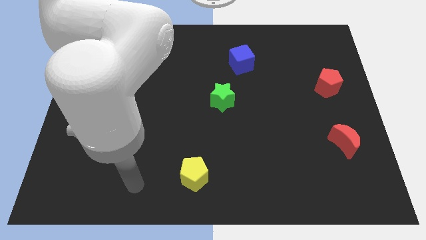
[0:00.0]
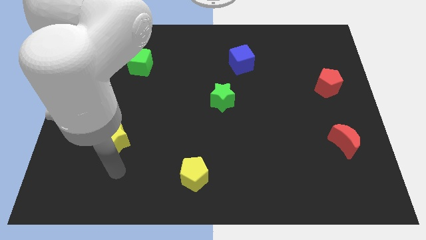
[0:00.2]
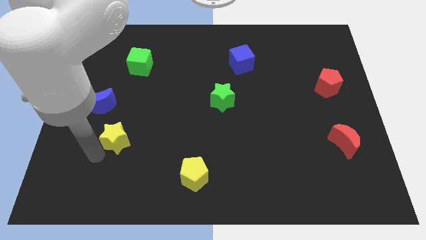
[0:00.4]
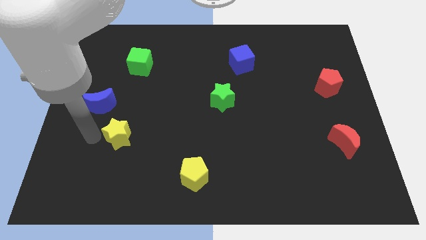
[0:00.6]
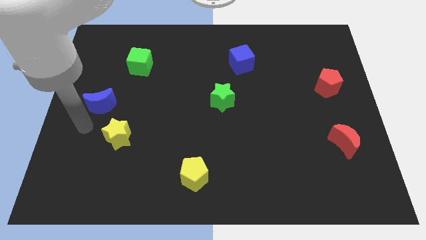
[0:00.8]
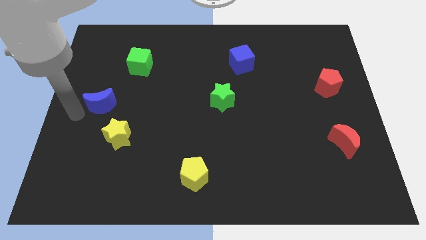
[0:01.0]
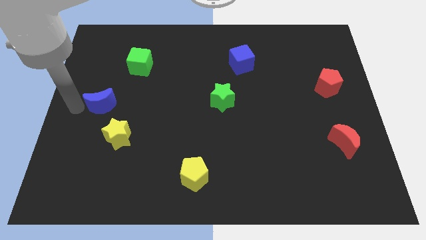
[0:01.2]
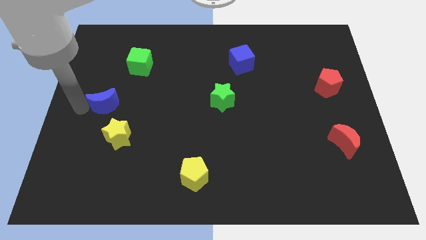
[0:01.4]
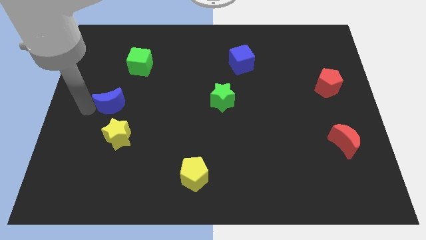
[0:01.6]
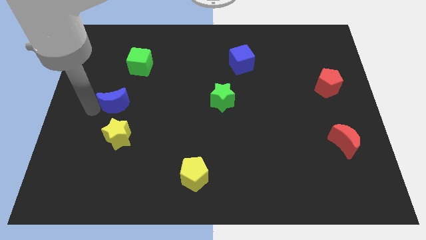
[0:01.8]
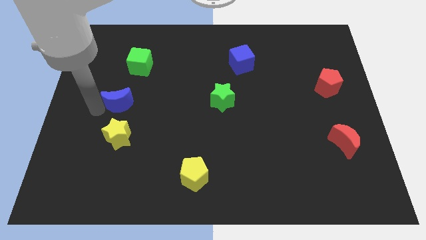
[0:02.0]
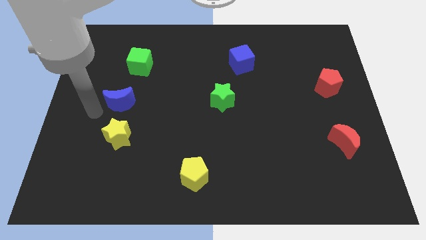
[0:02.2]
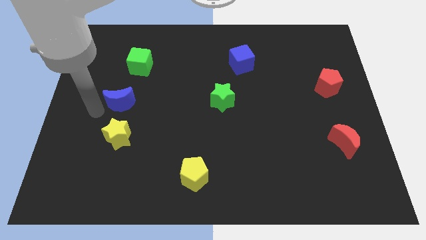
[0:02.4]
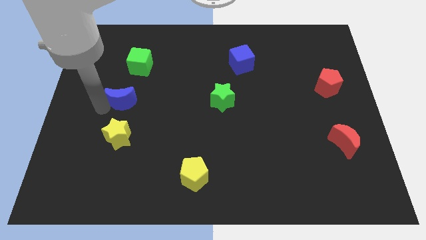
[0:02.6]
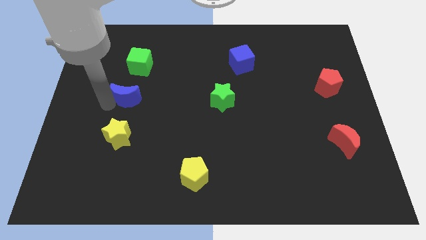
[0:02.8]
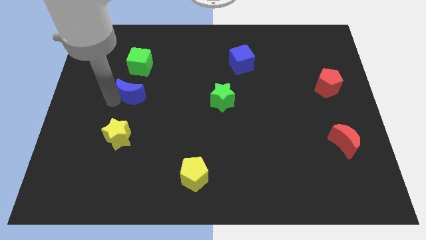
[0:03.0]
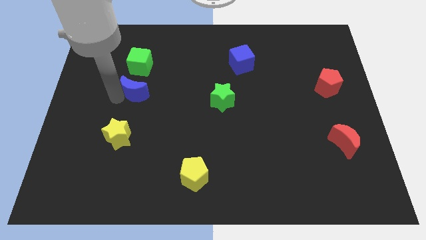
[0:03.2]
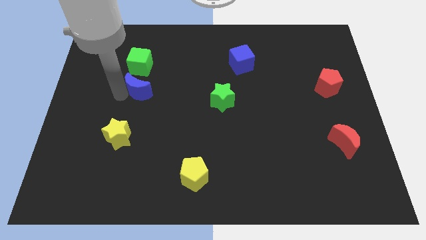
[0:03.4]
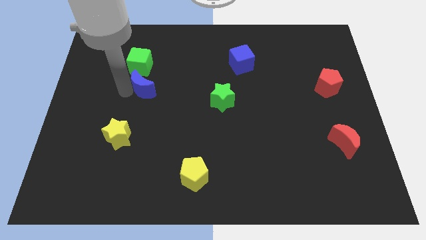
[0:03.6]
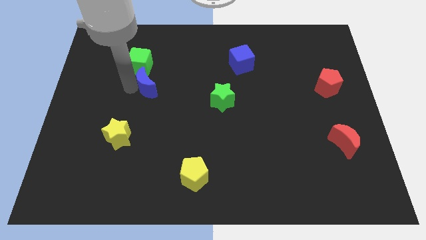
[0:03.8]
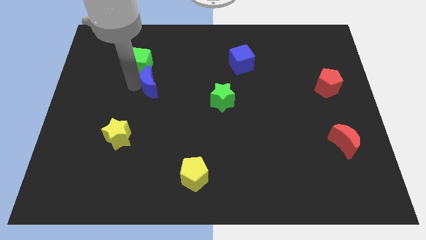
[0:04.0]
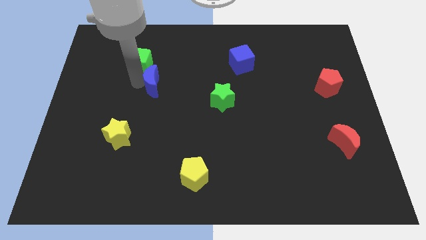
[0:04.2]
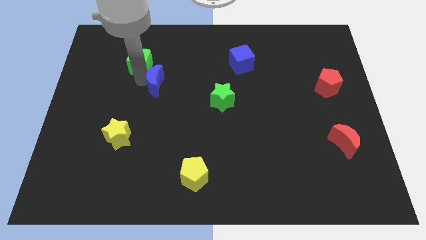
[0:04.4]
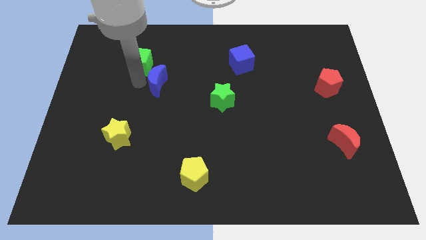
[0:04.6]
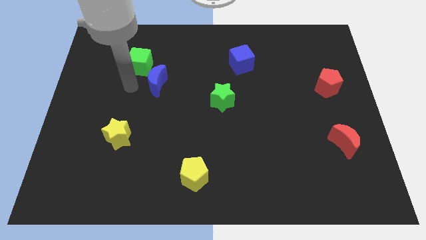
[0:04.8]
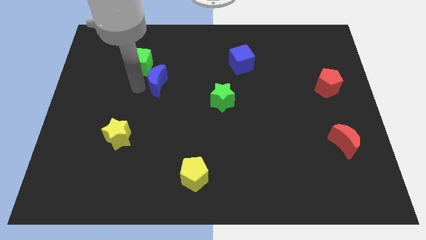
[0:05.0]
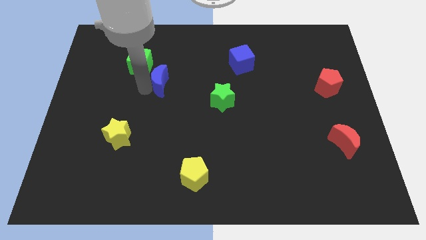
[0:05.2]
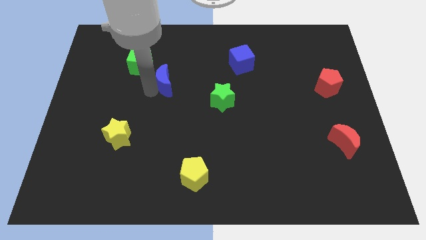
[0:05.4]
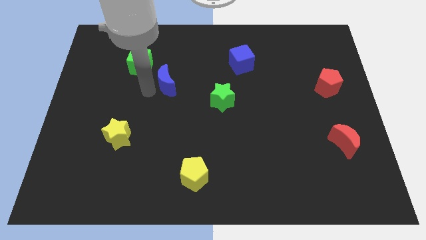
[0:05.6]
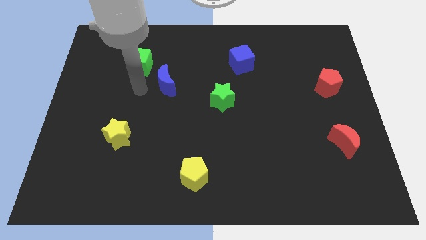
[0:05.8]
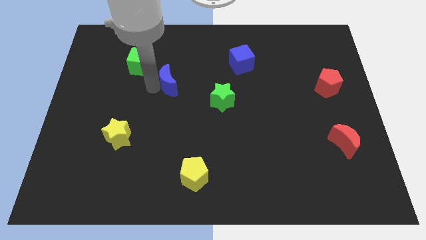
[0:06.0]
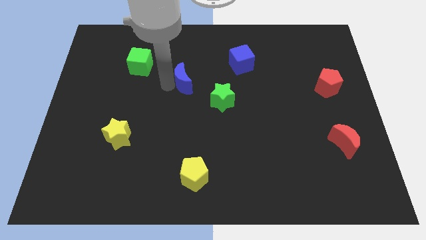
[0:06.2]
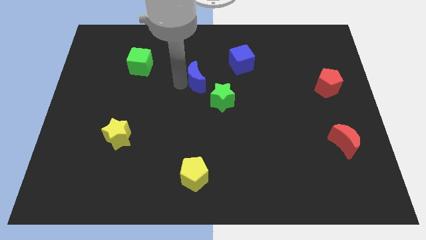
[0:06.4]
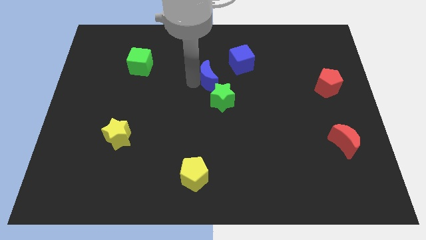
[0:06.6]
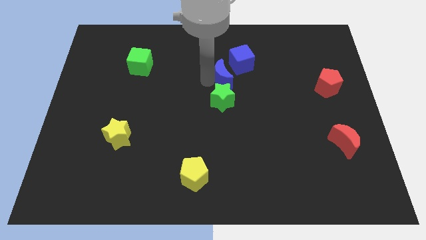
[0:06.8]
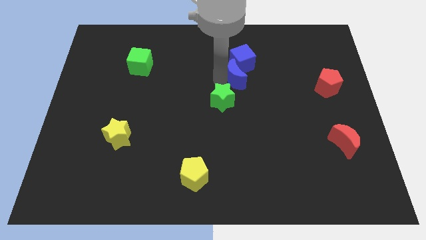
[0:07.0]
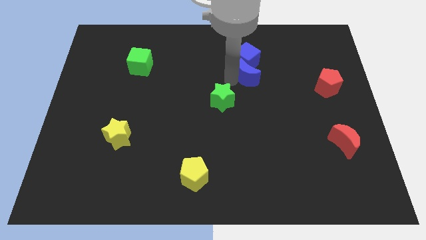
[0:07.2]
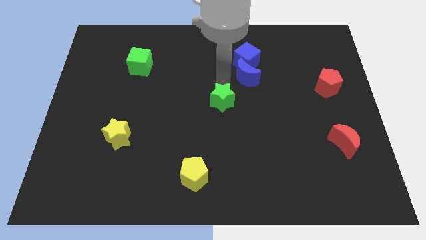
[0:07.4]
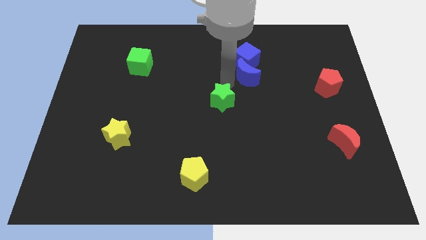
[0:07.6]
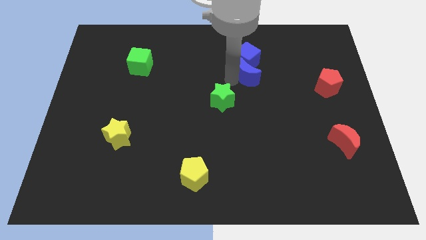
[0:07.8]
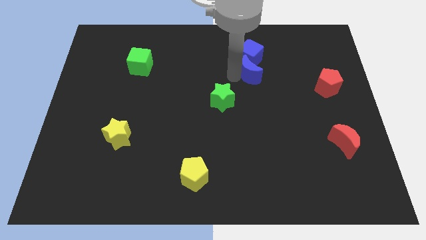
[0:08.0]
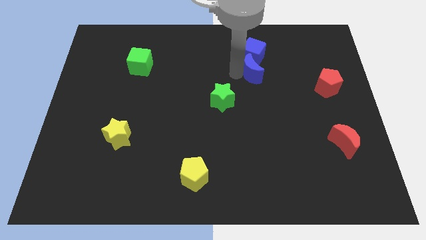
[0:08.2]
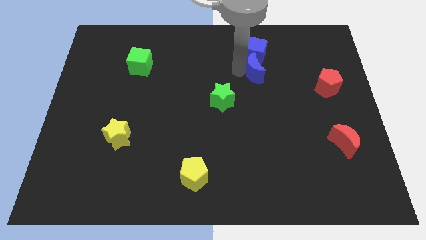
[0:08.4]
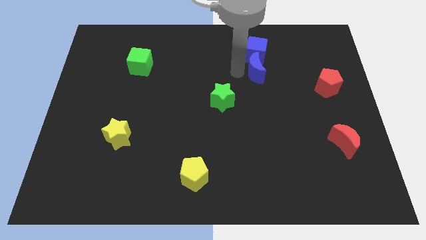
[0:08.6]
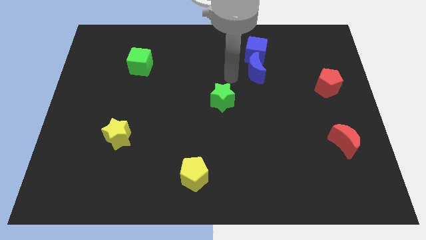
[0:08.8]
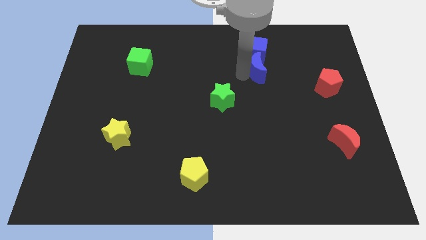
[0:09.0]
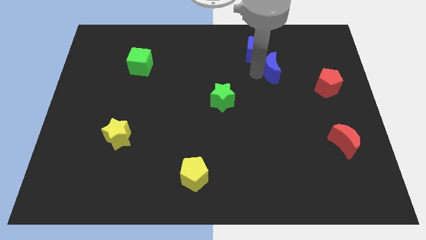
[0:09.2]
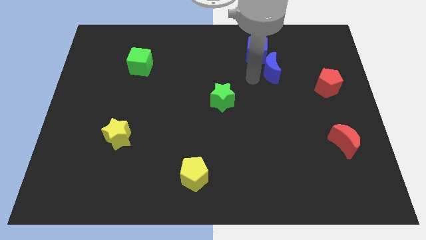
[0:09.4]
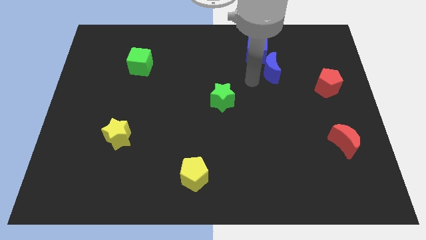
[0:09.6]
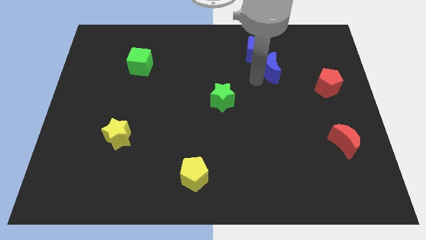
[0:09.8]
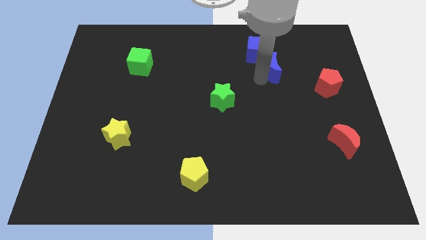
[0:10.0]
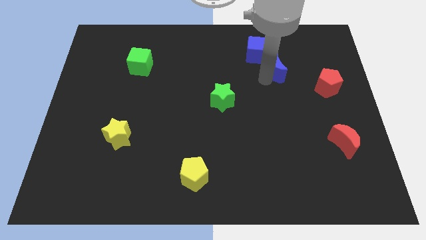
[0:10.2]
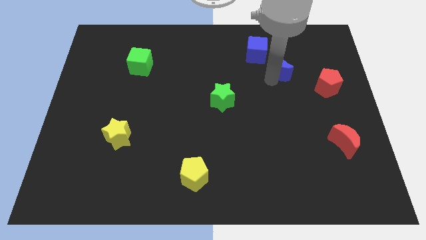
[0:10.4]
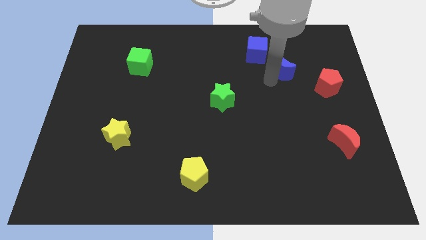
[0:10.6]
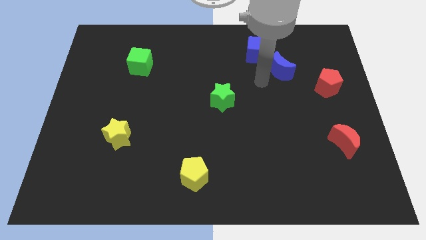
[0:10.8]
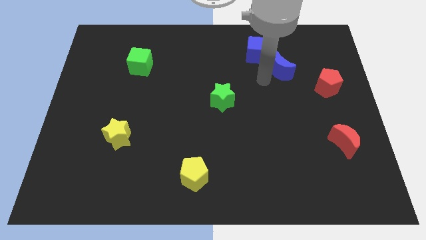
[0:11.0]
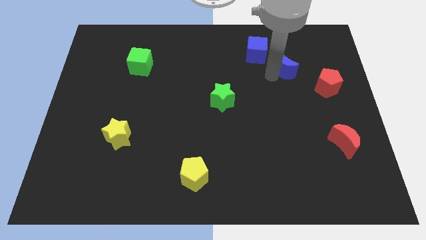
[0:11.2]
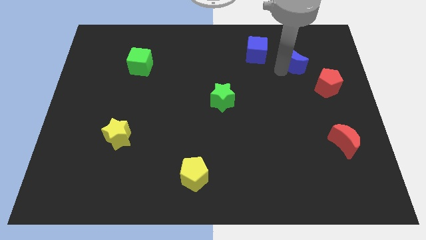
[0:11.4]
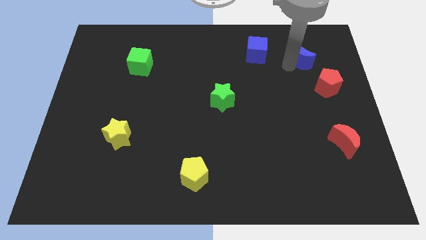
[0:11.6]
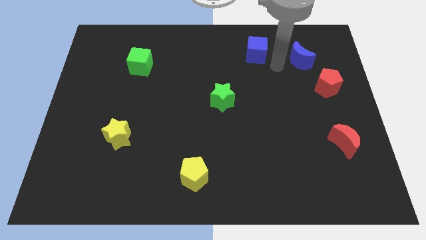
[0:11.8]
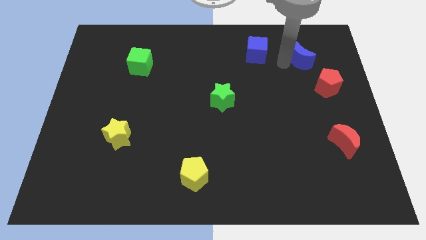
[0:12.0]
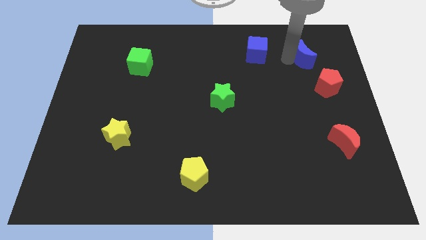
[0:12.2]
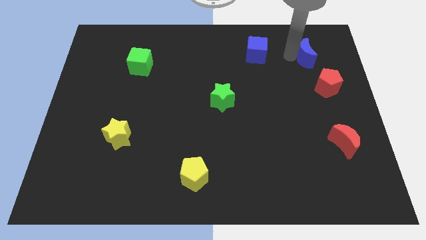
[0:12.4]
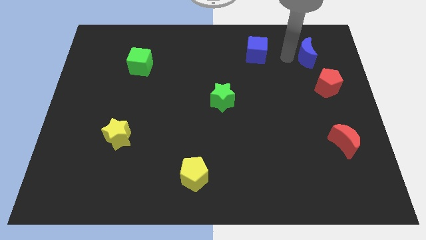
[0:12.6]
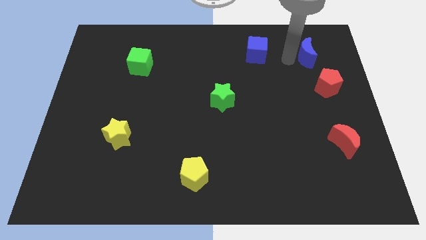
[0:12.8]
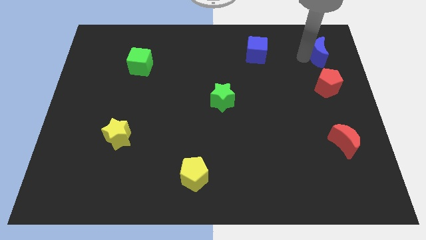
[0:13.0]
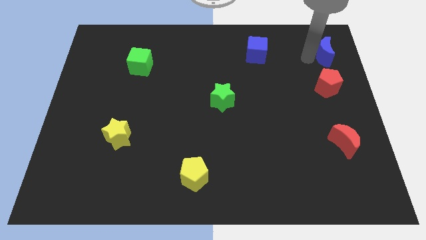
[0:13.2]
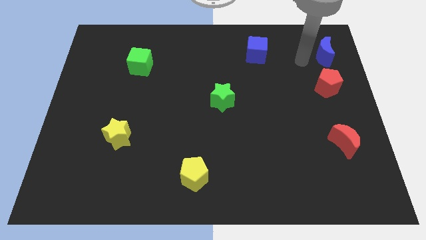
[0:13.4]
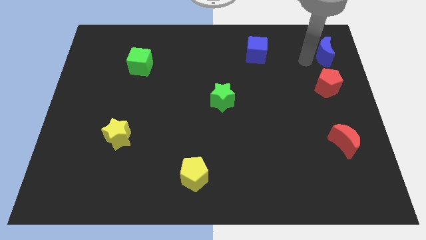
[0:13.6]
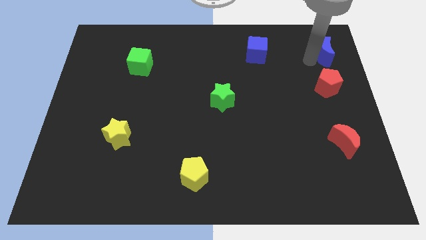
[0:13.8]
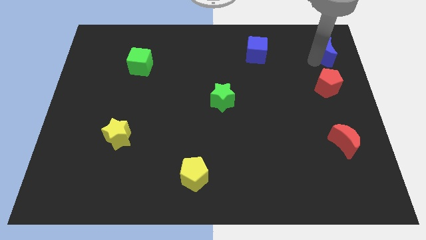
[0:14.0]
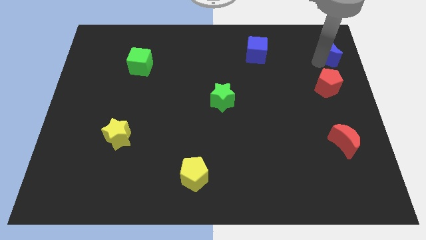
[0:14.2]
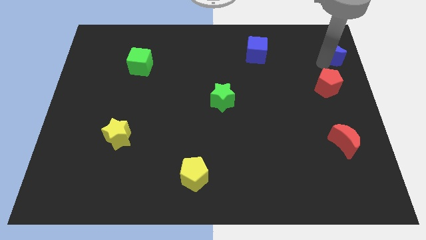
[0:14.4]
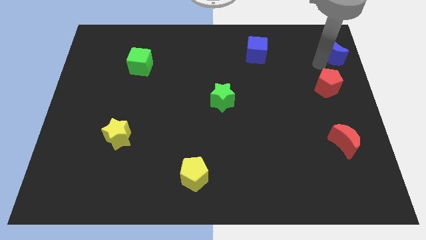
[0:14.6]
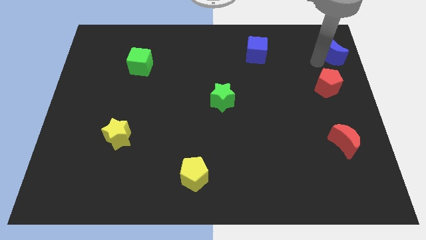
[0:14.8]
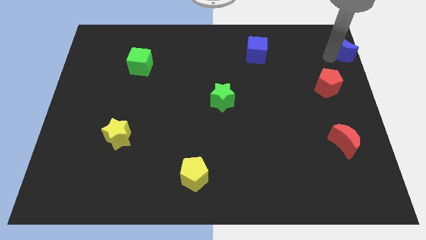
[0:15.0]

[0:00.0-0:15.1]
move the blue moon to the top right of the board
